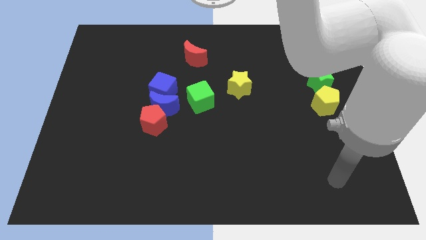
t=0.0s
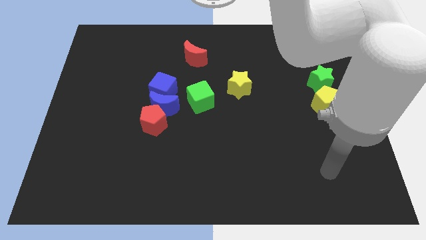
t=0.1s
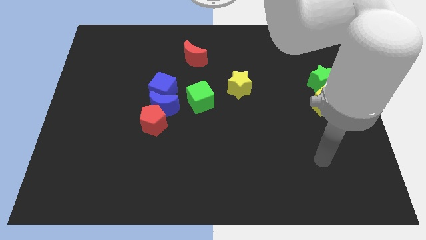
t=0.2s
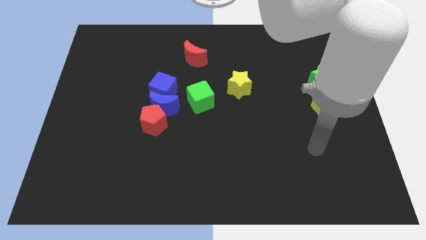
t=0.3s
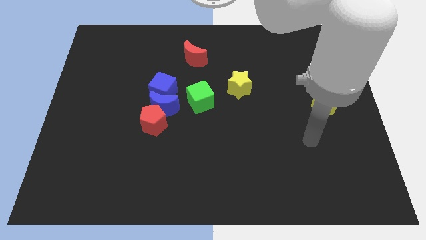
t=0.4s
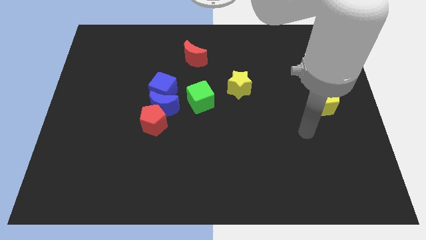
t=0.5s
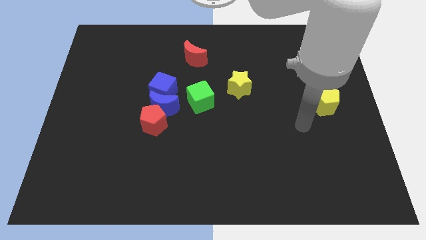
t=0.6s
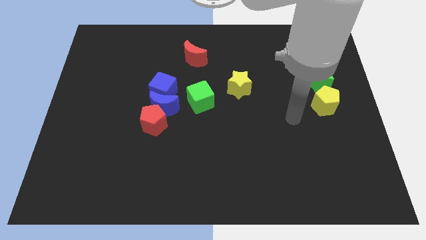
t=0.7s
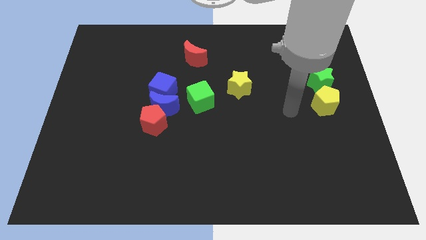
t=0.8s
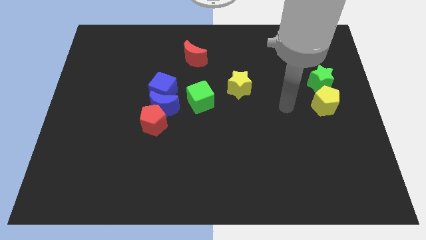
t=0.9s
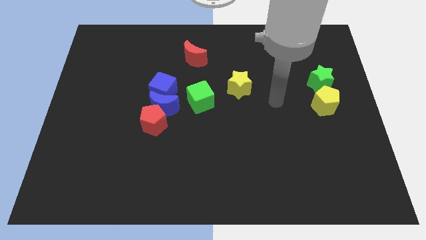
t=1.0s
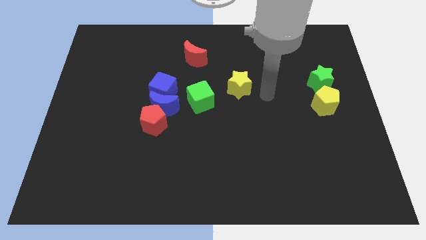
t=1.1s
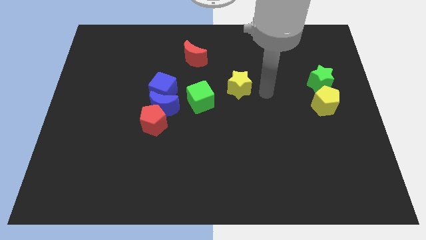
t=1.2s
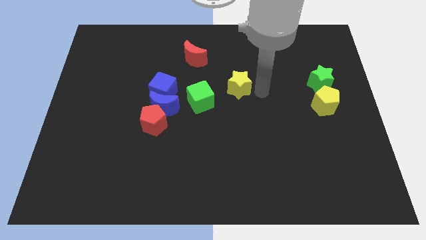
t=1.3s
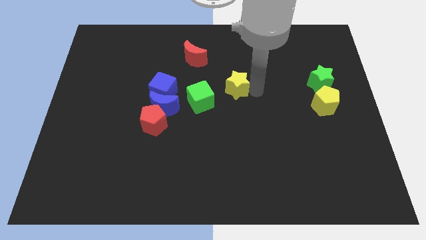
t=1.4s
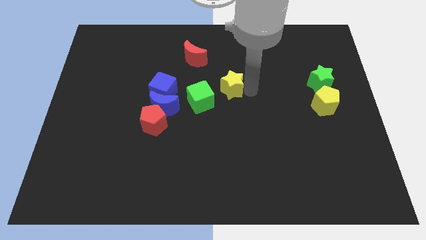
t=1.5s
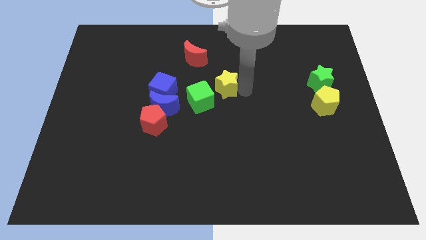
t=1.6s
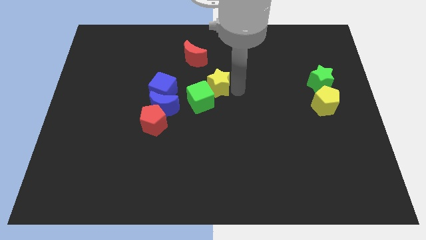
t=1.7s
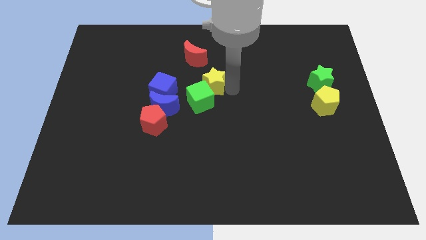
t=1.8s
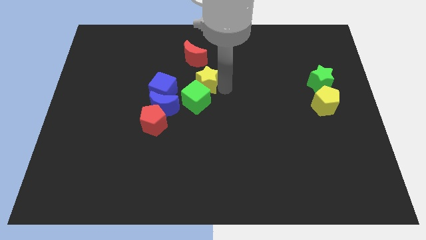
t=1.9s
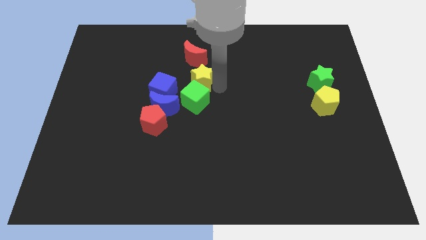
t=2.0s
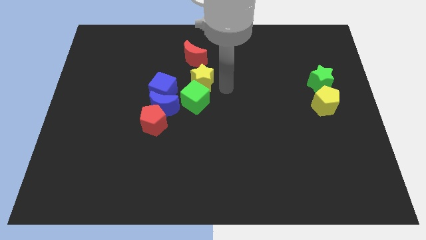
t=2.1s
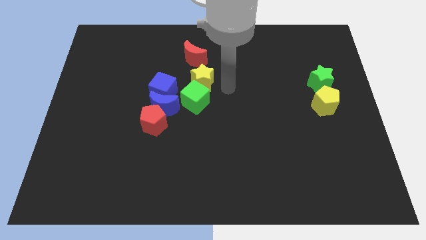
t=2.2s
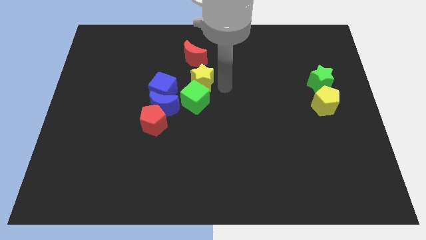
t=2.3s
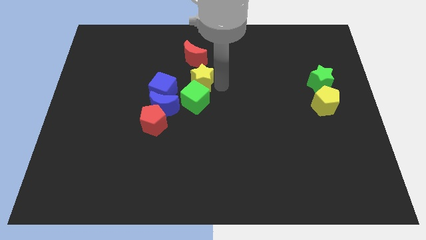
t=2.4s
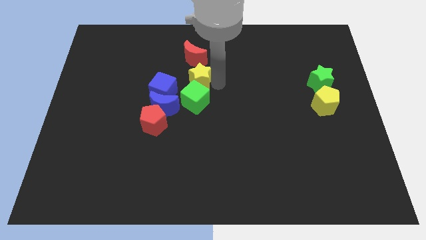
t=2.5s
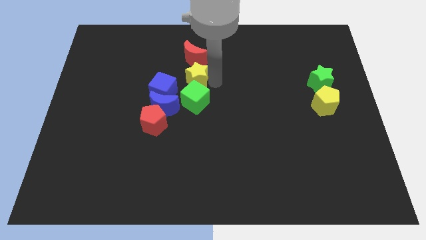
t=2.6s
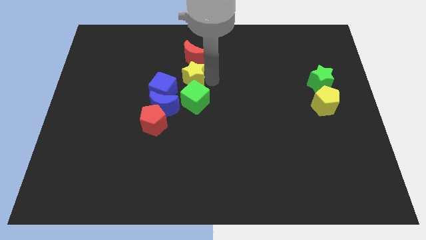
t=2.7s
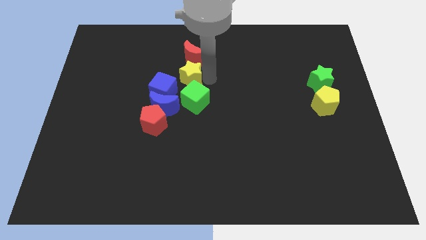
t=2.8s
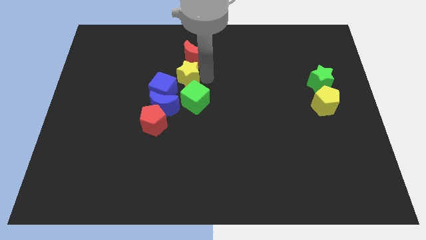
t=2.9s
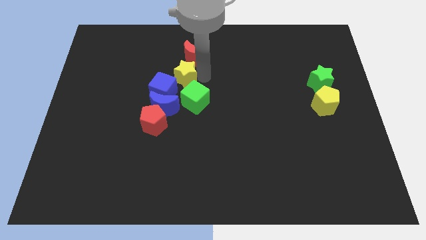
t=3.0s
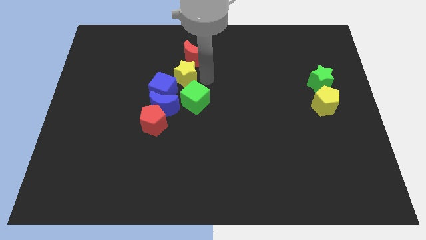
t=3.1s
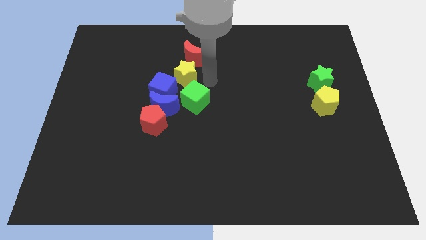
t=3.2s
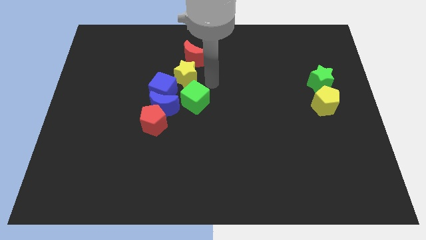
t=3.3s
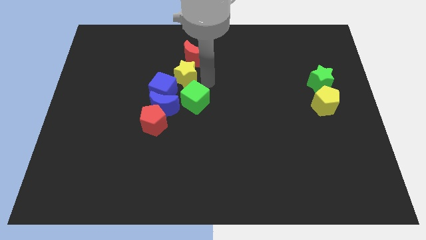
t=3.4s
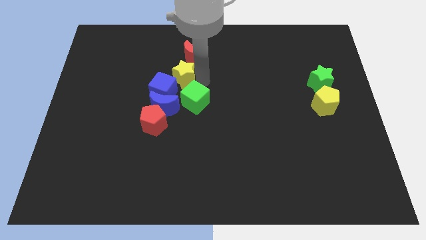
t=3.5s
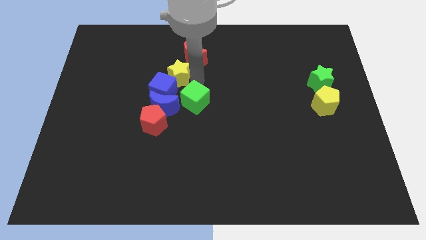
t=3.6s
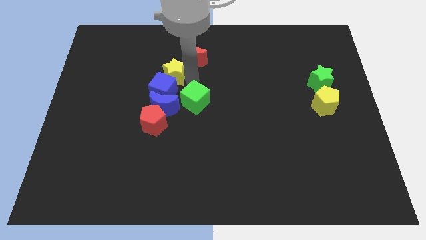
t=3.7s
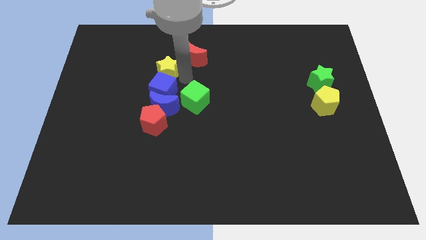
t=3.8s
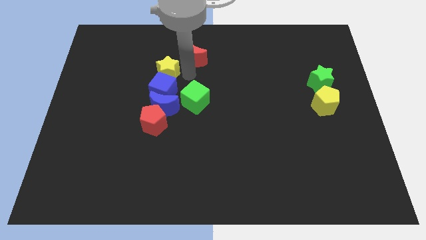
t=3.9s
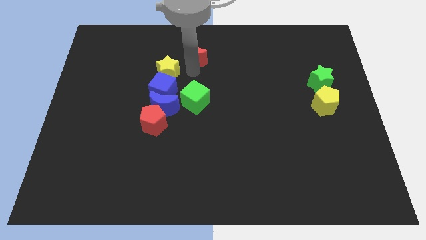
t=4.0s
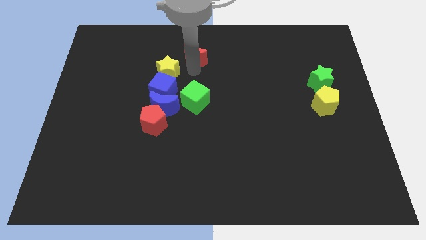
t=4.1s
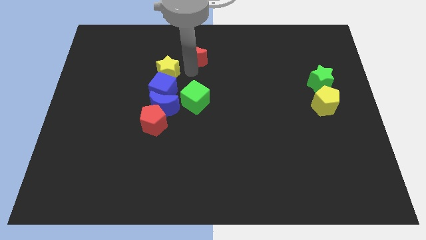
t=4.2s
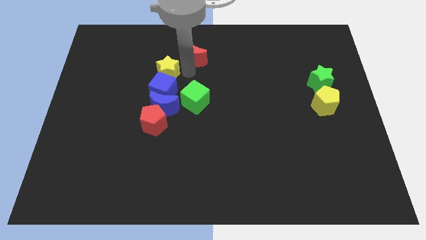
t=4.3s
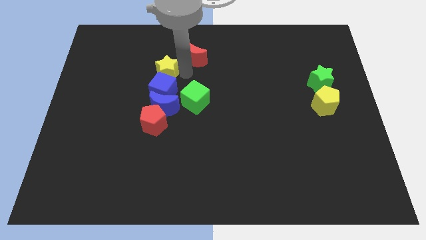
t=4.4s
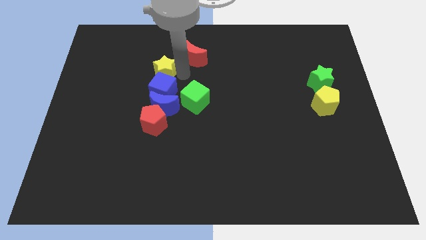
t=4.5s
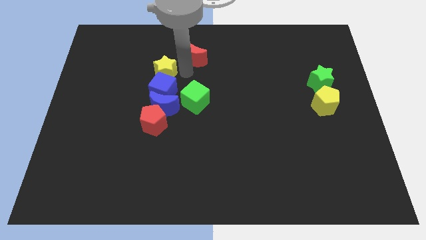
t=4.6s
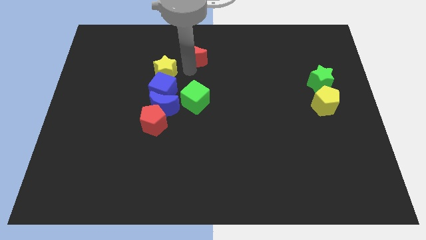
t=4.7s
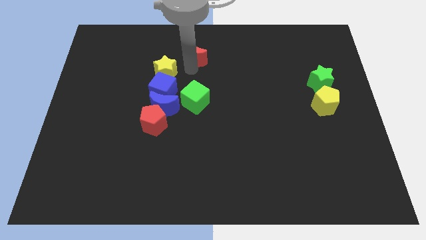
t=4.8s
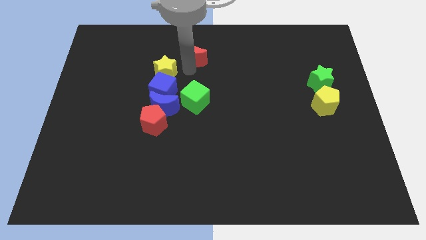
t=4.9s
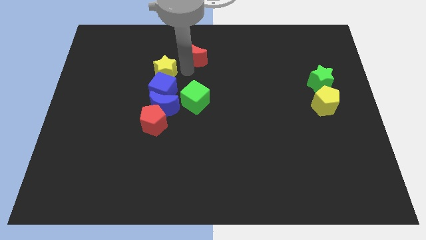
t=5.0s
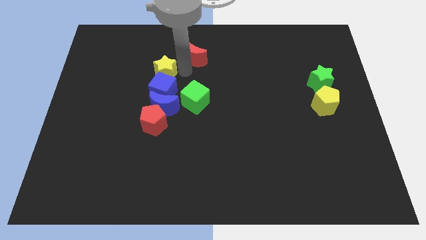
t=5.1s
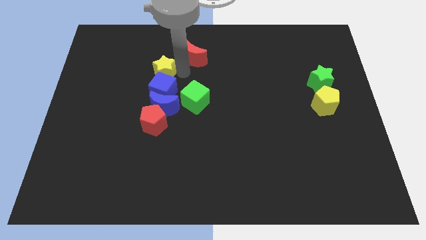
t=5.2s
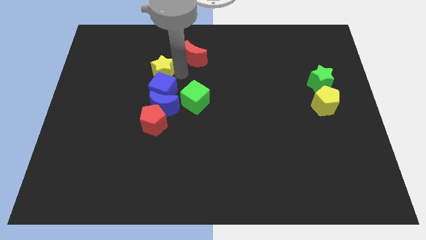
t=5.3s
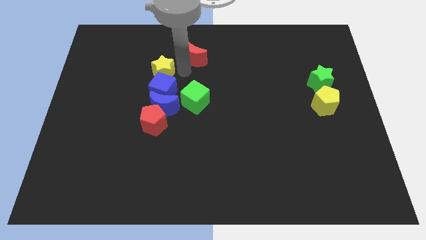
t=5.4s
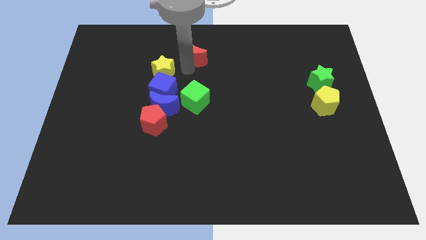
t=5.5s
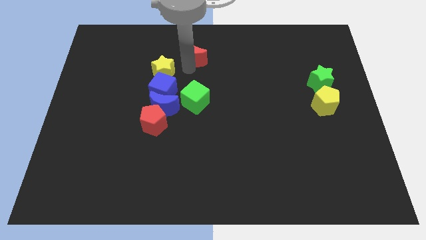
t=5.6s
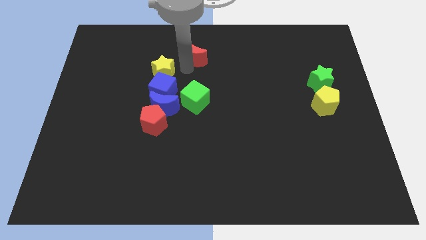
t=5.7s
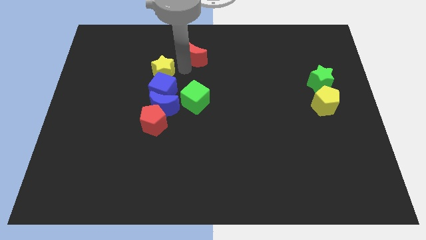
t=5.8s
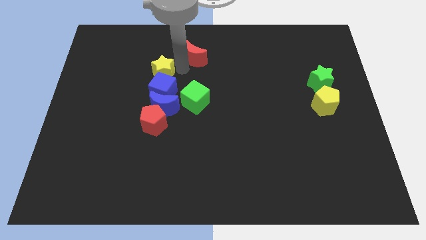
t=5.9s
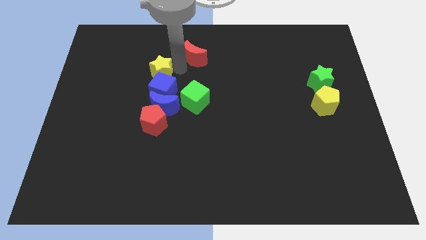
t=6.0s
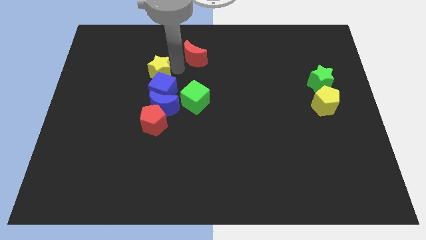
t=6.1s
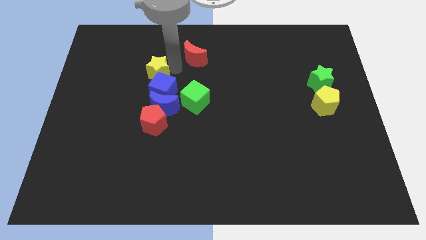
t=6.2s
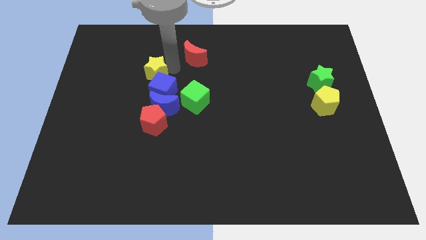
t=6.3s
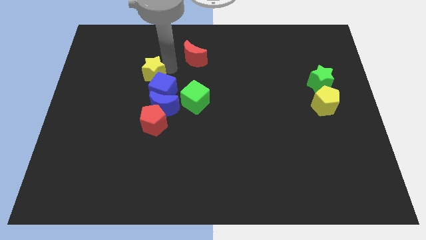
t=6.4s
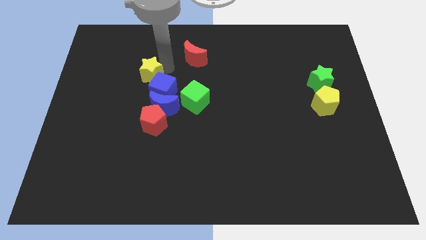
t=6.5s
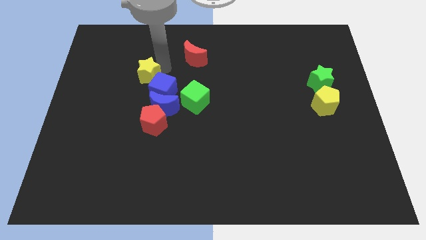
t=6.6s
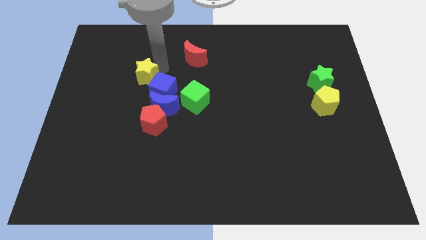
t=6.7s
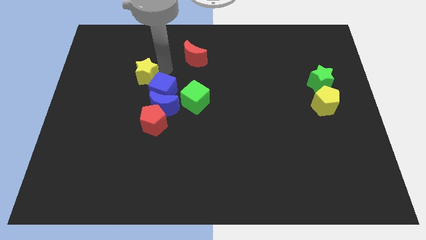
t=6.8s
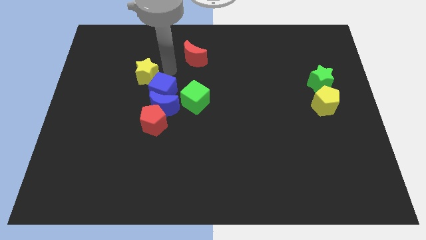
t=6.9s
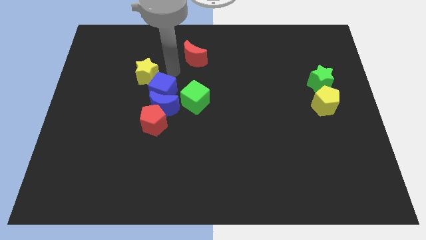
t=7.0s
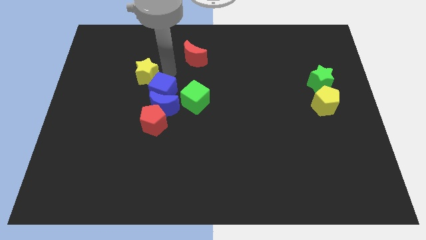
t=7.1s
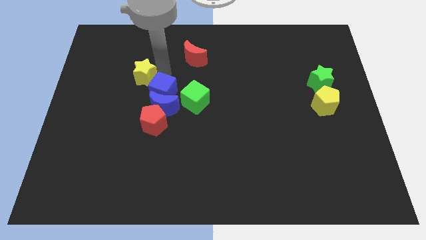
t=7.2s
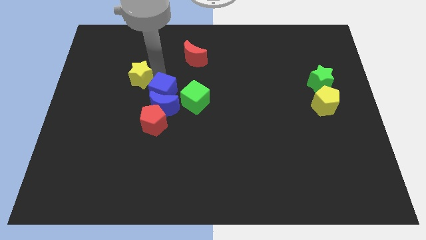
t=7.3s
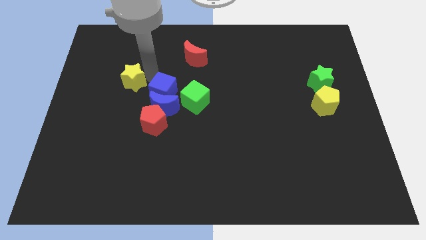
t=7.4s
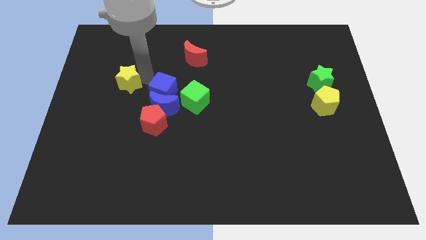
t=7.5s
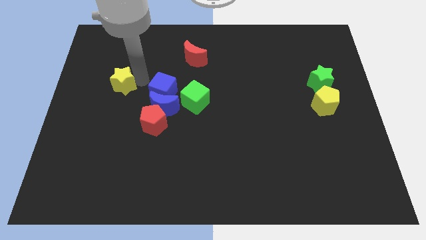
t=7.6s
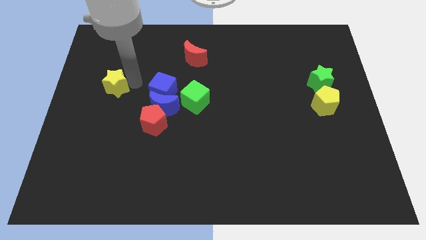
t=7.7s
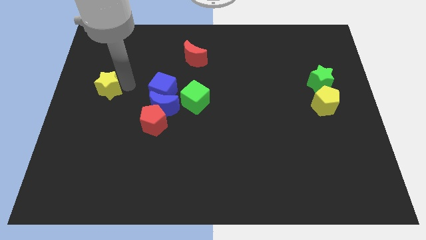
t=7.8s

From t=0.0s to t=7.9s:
put the yellow star to the left side
